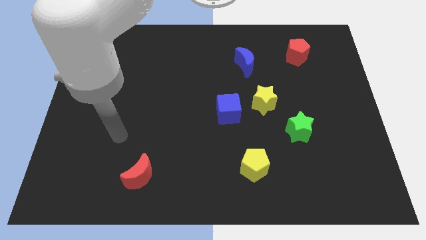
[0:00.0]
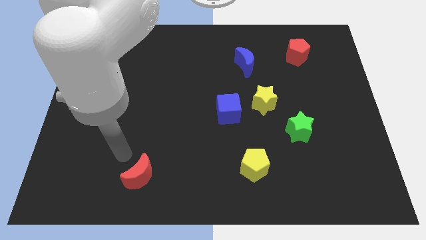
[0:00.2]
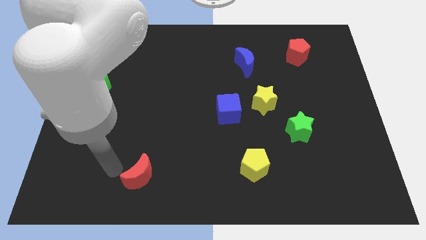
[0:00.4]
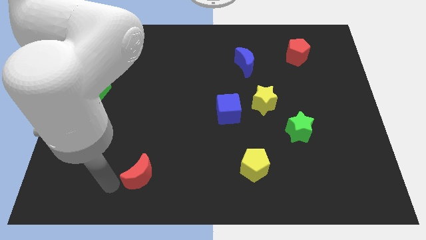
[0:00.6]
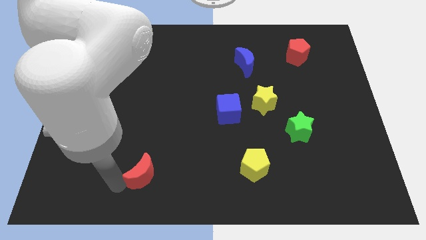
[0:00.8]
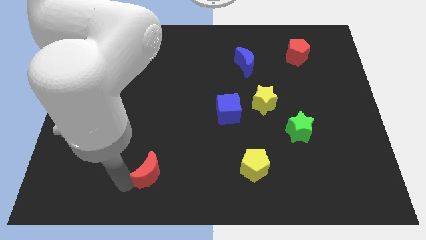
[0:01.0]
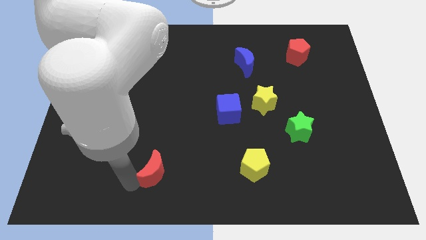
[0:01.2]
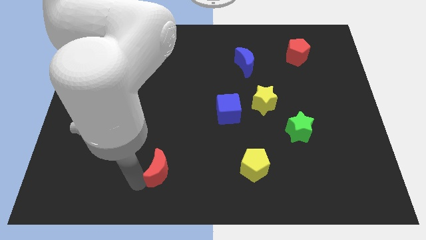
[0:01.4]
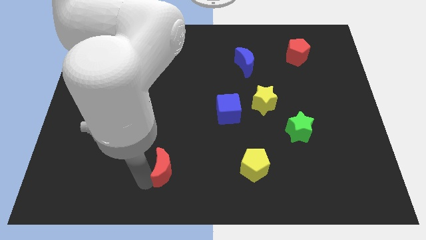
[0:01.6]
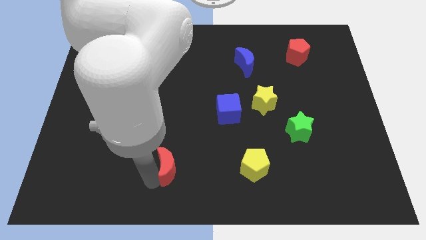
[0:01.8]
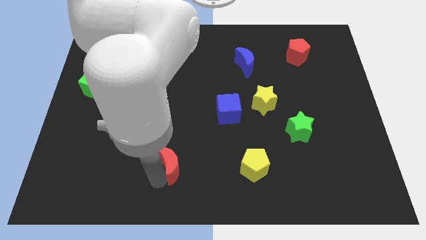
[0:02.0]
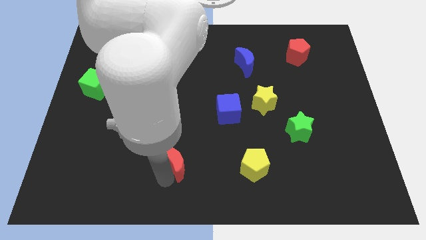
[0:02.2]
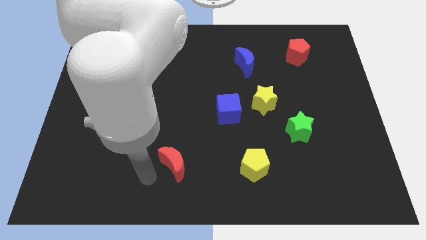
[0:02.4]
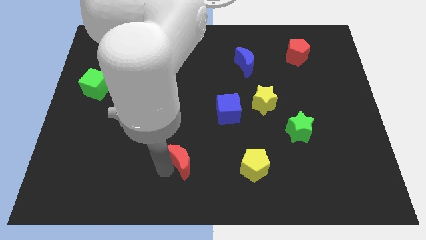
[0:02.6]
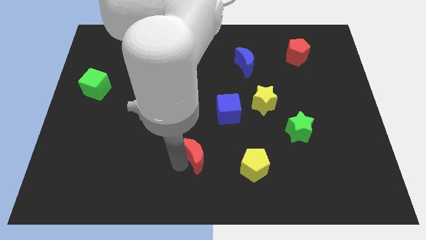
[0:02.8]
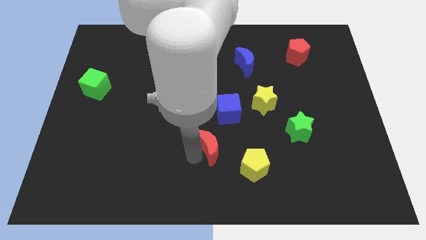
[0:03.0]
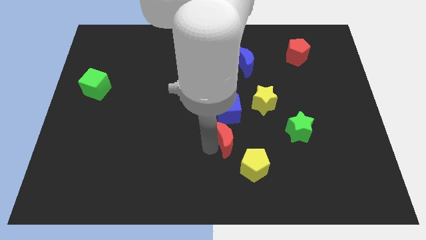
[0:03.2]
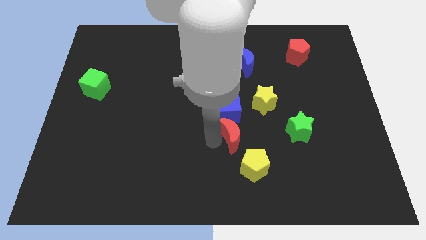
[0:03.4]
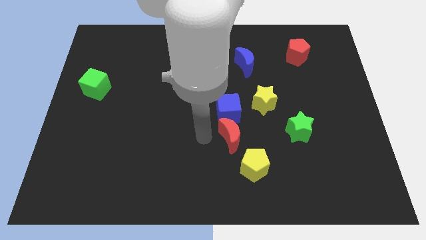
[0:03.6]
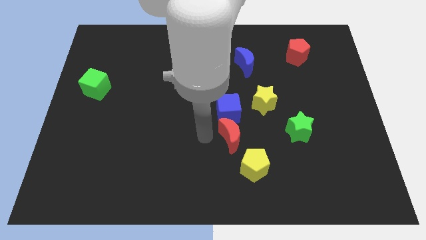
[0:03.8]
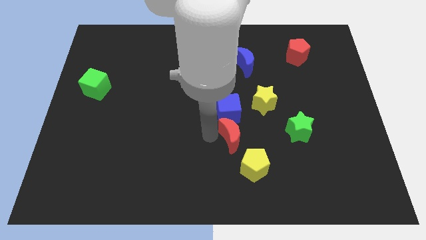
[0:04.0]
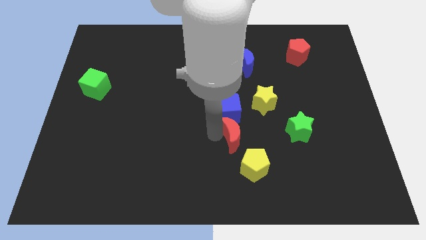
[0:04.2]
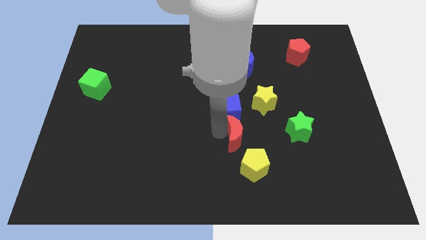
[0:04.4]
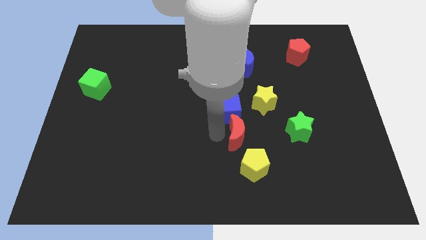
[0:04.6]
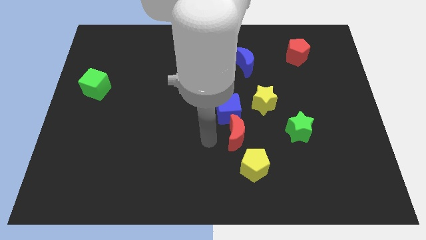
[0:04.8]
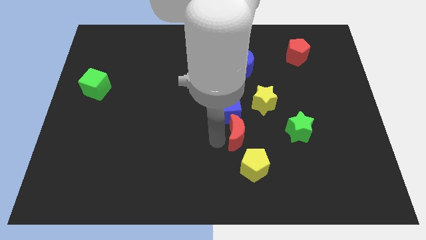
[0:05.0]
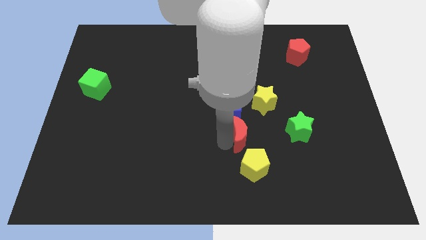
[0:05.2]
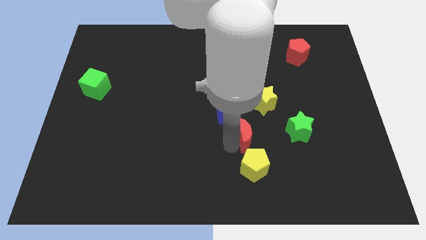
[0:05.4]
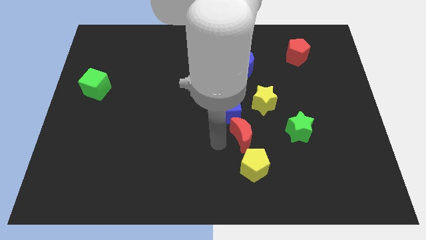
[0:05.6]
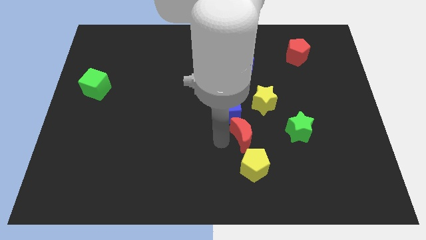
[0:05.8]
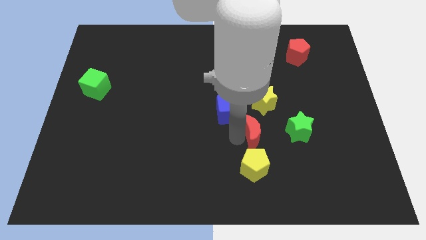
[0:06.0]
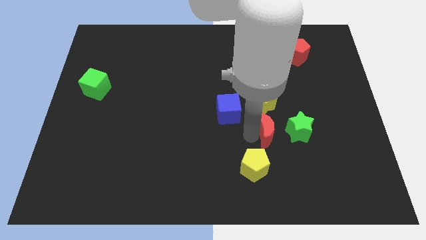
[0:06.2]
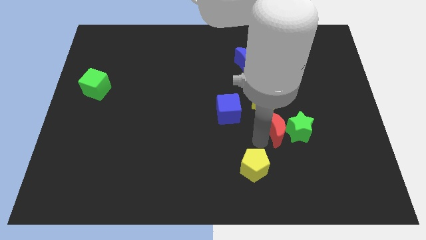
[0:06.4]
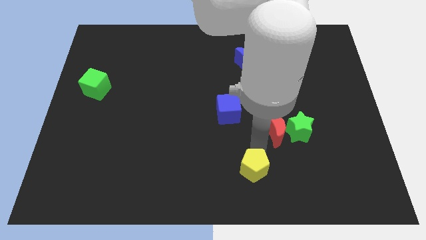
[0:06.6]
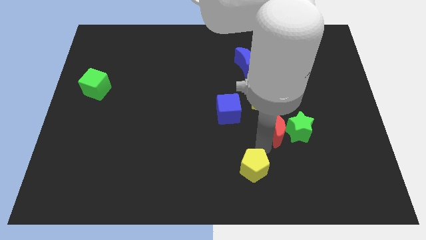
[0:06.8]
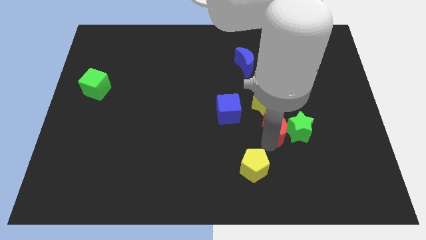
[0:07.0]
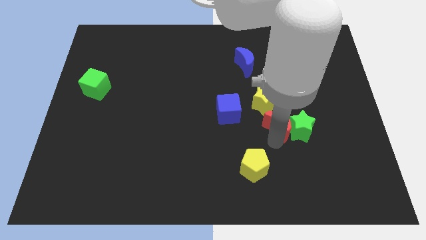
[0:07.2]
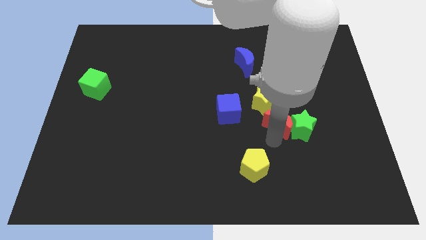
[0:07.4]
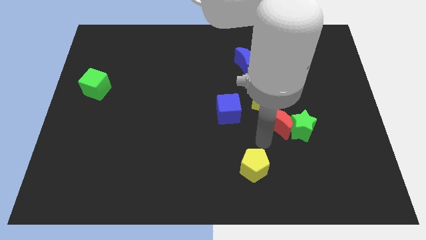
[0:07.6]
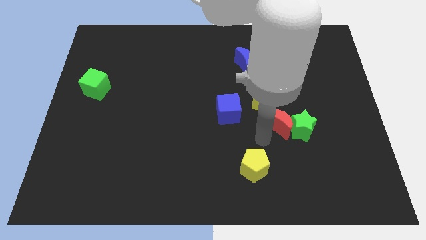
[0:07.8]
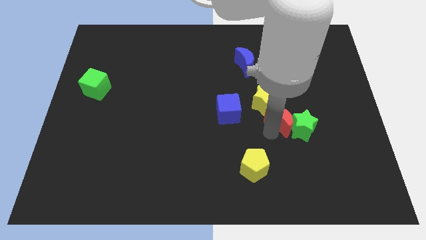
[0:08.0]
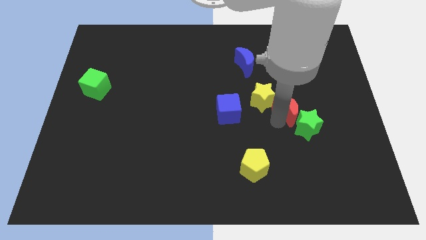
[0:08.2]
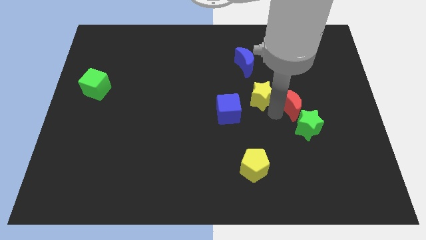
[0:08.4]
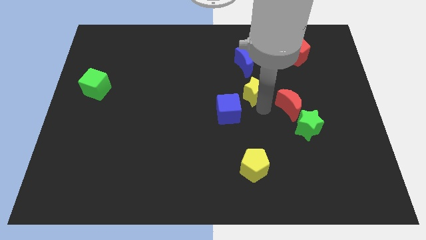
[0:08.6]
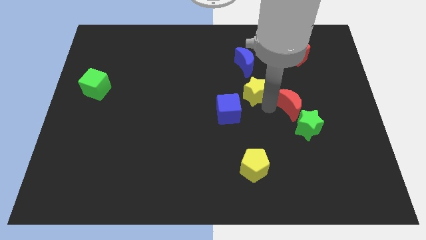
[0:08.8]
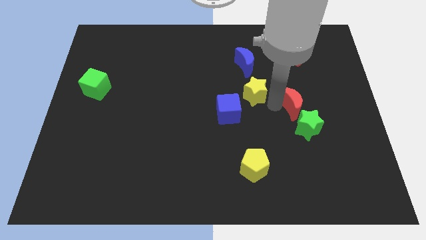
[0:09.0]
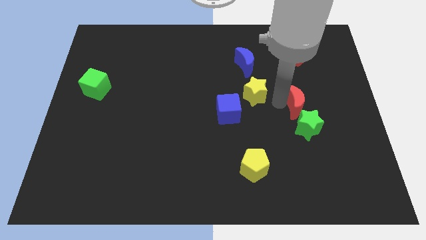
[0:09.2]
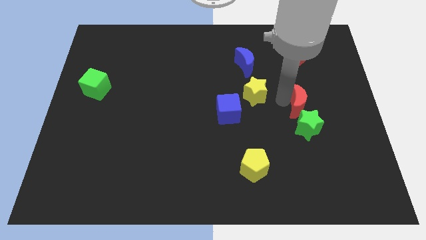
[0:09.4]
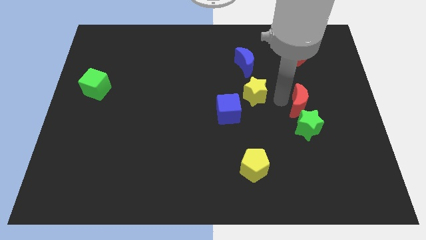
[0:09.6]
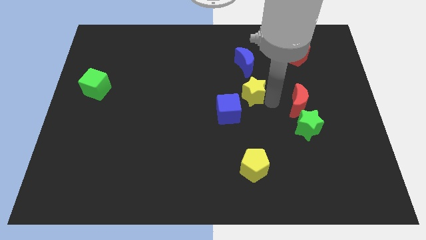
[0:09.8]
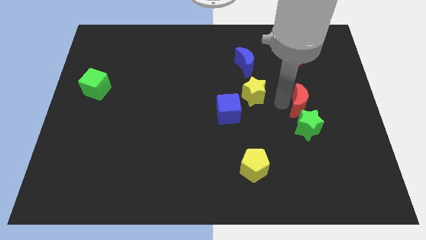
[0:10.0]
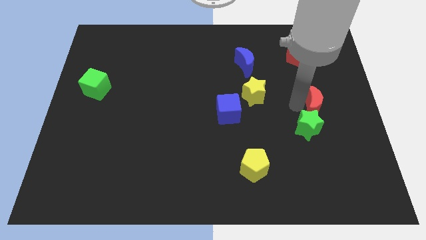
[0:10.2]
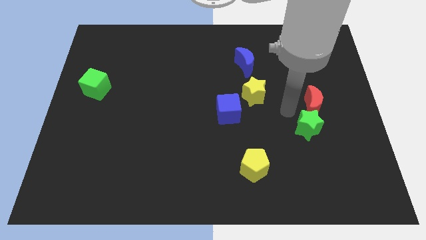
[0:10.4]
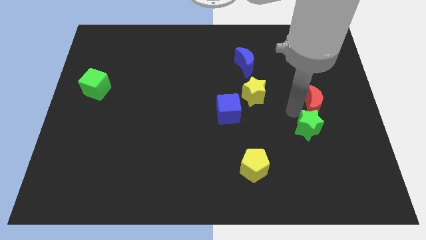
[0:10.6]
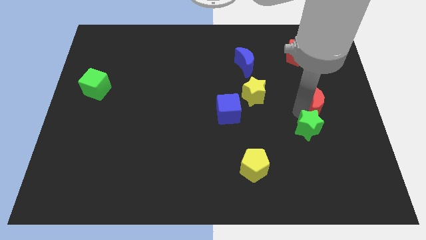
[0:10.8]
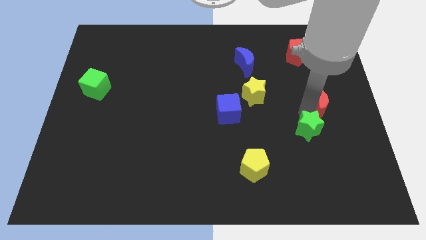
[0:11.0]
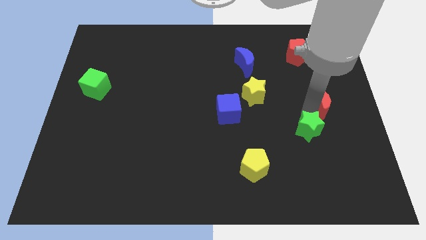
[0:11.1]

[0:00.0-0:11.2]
slide the red moon to the center right
